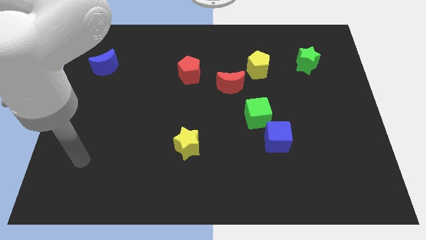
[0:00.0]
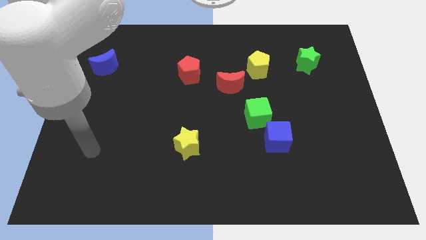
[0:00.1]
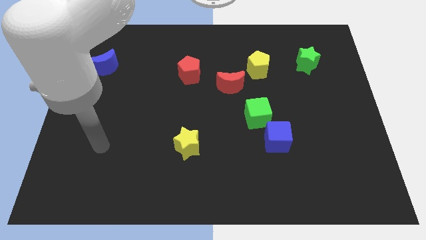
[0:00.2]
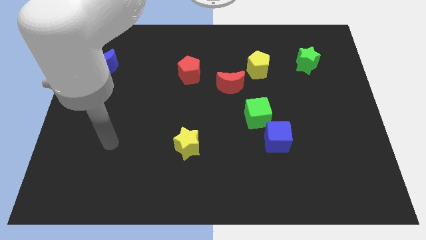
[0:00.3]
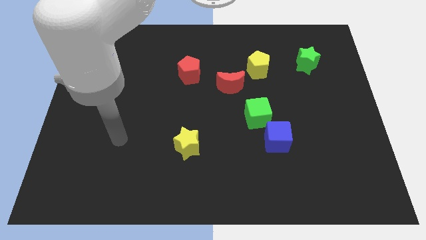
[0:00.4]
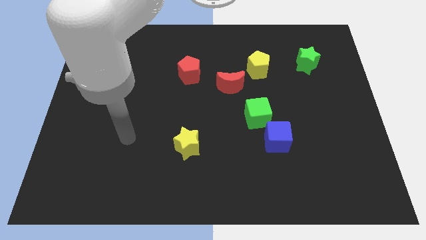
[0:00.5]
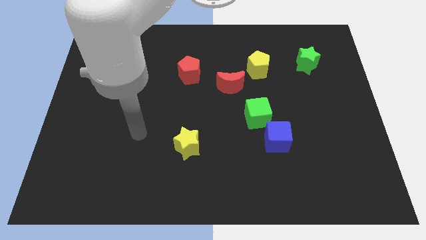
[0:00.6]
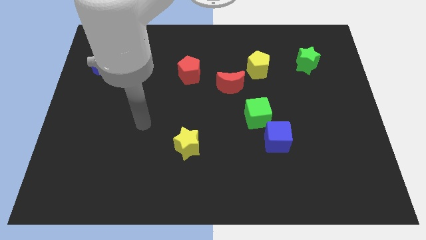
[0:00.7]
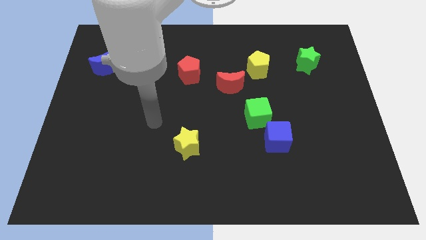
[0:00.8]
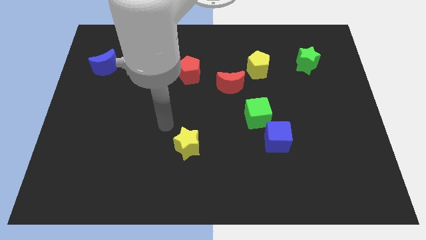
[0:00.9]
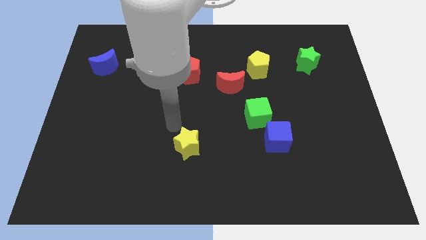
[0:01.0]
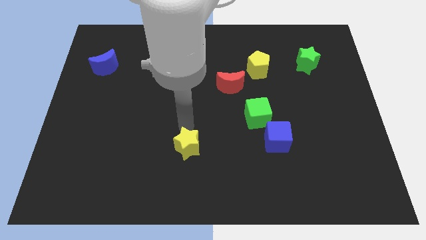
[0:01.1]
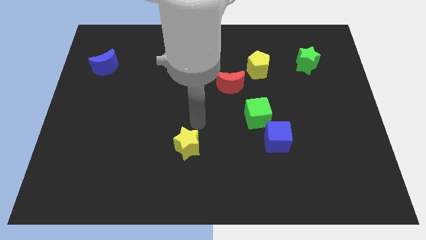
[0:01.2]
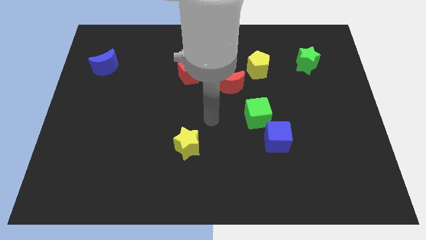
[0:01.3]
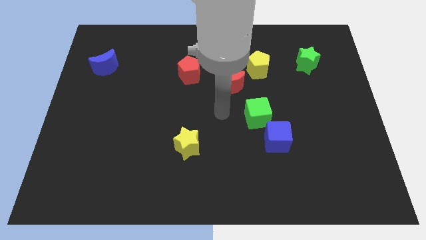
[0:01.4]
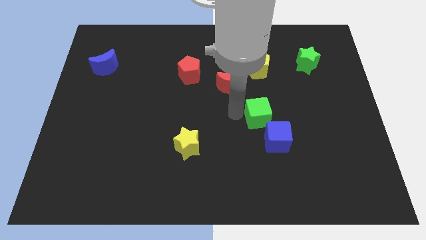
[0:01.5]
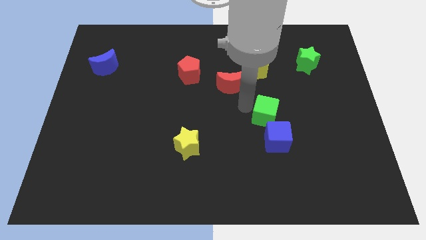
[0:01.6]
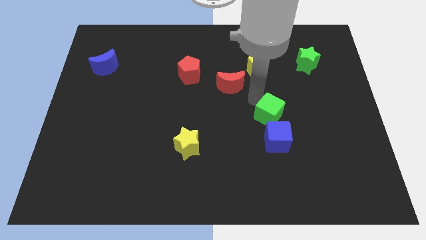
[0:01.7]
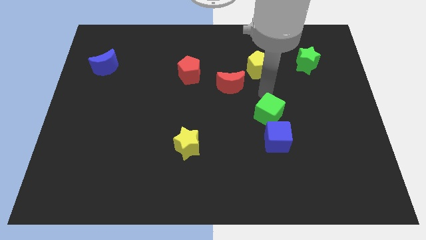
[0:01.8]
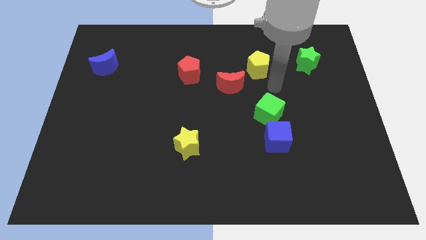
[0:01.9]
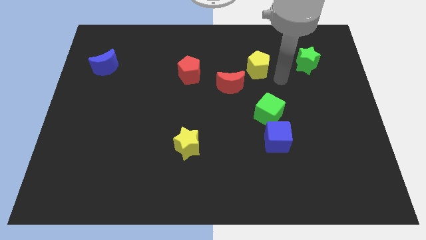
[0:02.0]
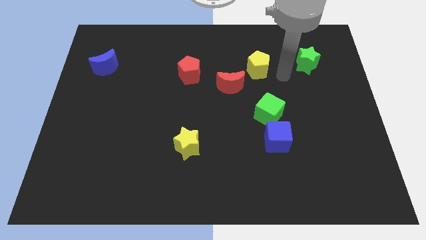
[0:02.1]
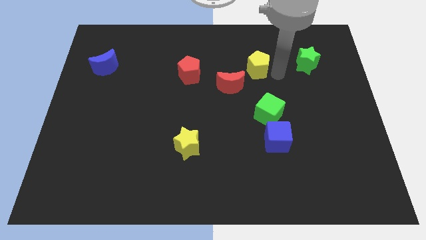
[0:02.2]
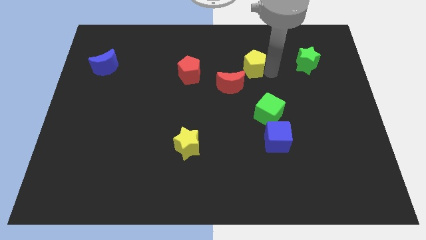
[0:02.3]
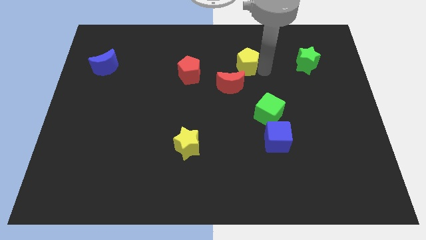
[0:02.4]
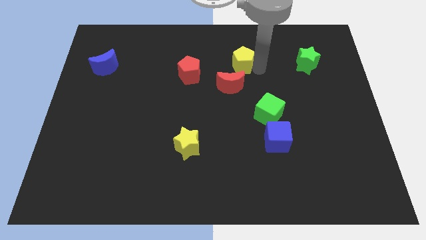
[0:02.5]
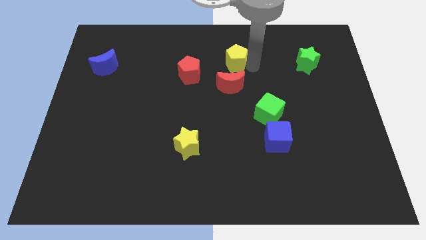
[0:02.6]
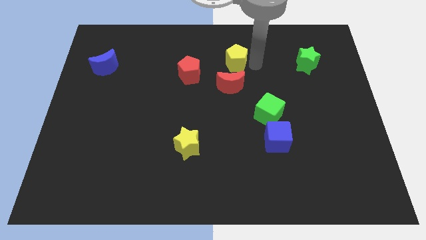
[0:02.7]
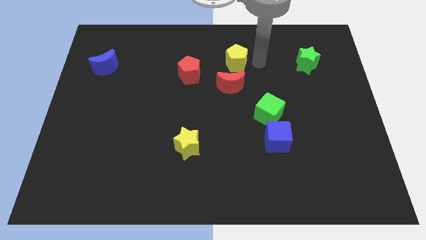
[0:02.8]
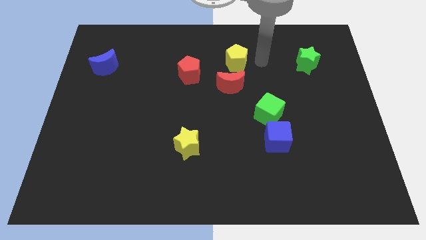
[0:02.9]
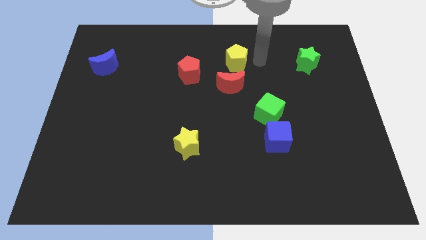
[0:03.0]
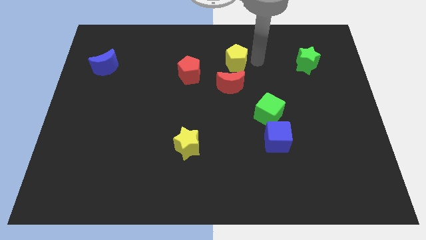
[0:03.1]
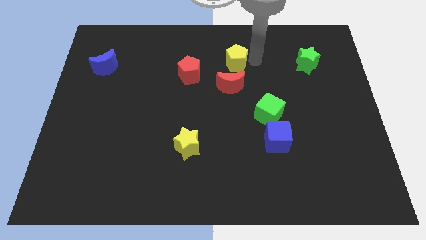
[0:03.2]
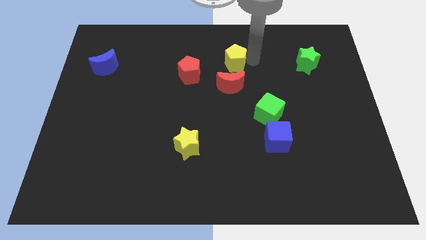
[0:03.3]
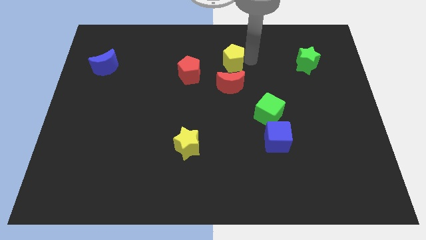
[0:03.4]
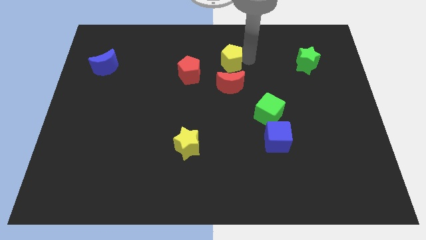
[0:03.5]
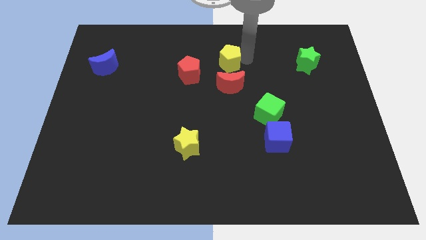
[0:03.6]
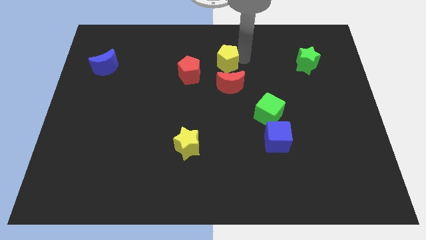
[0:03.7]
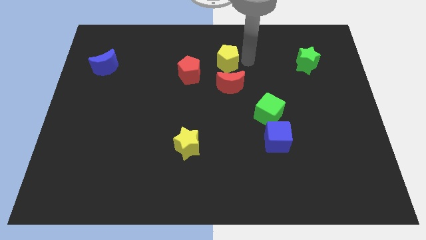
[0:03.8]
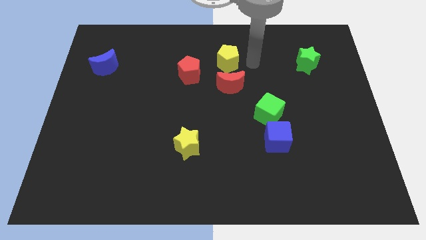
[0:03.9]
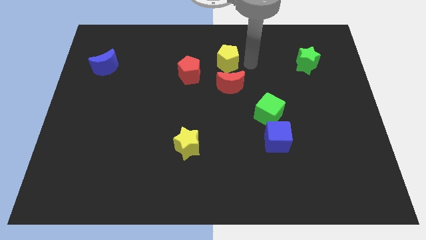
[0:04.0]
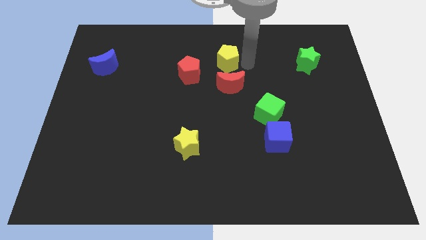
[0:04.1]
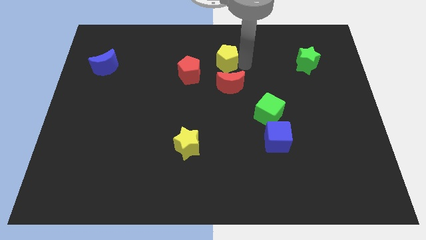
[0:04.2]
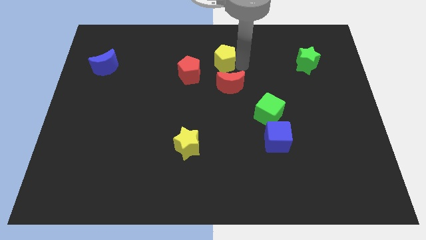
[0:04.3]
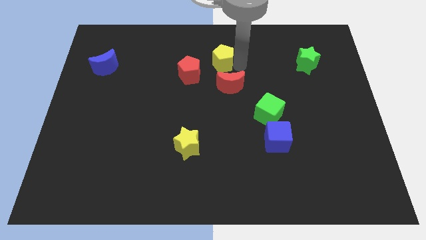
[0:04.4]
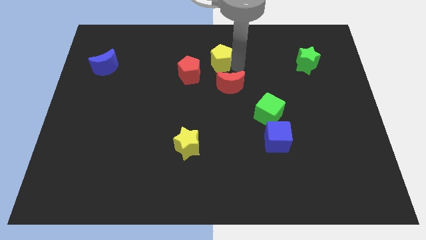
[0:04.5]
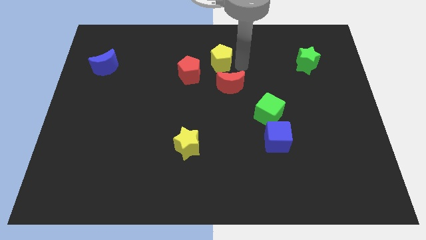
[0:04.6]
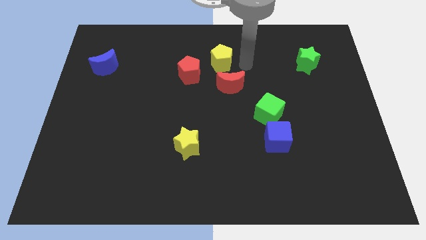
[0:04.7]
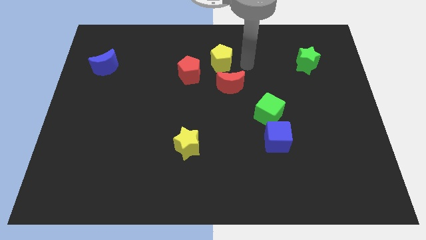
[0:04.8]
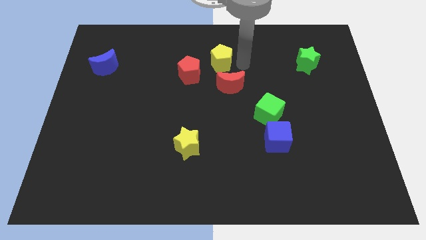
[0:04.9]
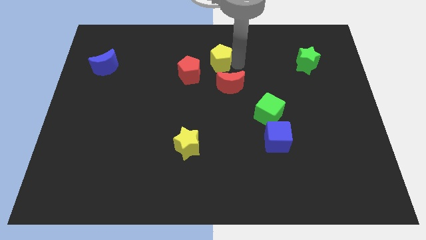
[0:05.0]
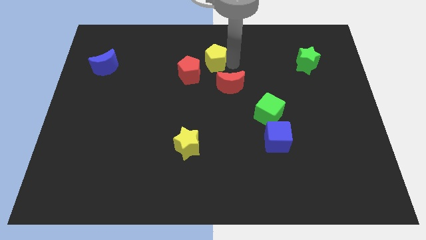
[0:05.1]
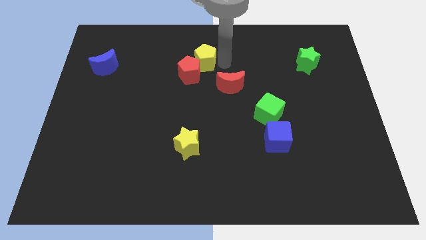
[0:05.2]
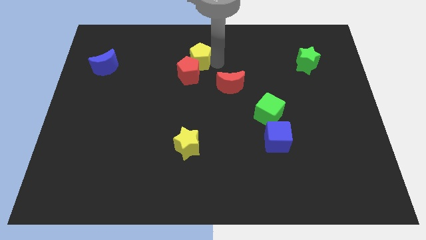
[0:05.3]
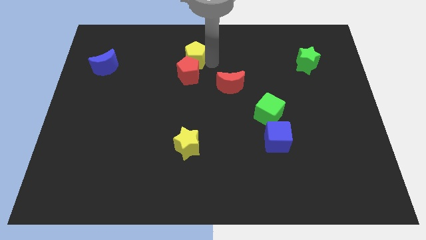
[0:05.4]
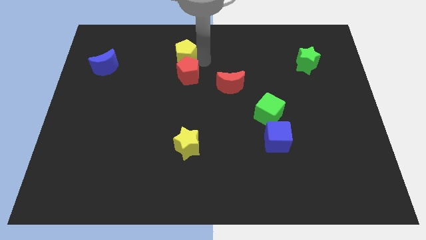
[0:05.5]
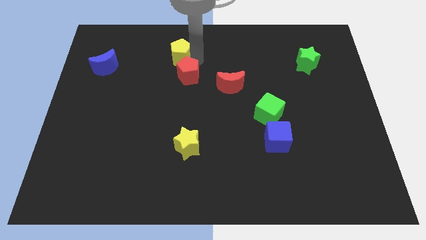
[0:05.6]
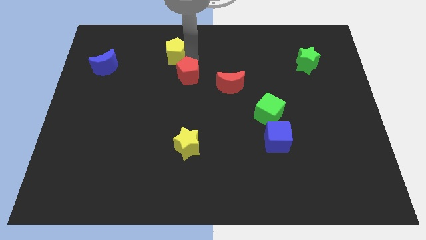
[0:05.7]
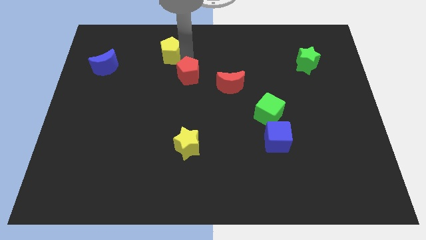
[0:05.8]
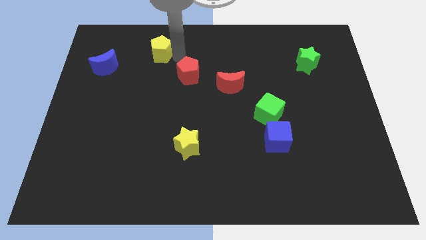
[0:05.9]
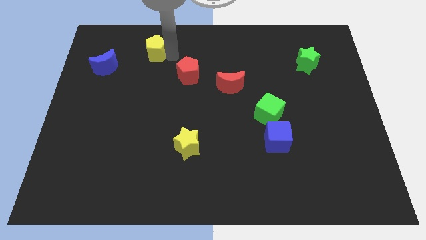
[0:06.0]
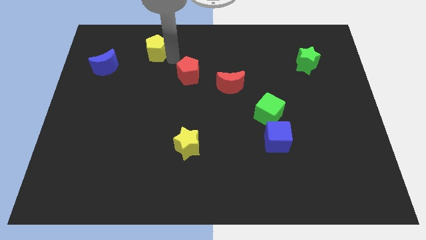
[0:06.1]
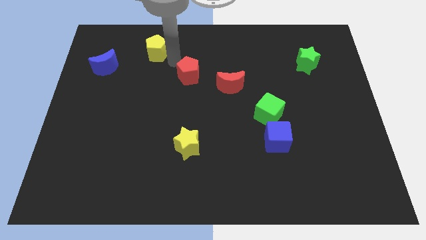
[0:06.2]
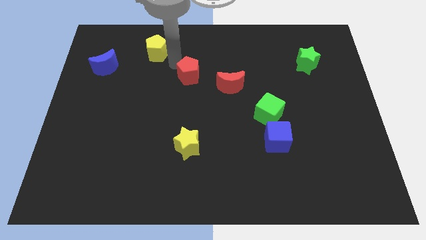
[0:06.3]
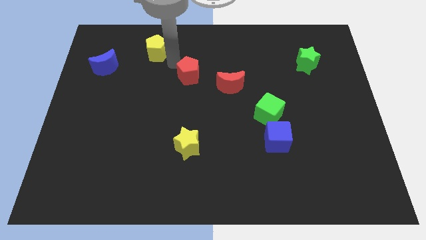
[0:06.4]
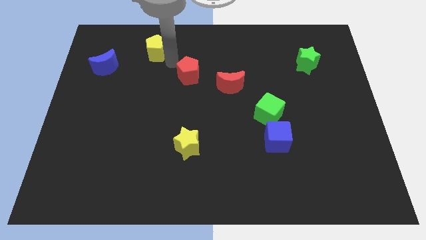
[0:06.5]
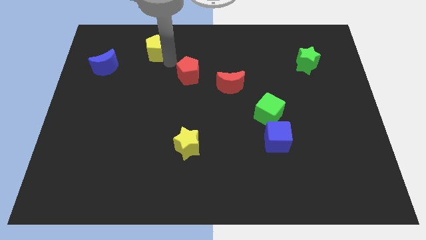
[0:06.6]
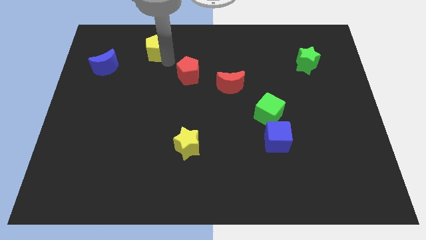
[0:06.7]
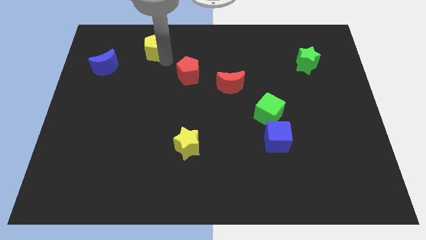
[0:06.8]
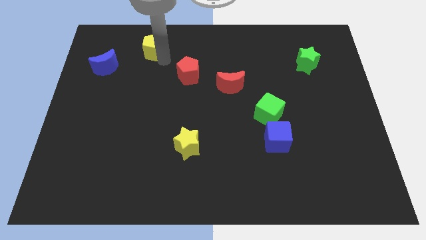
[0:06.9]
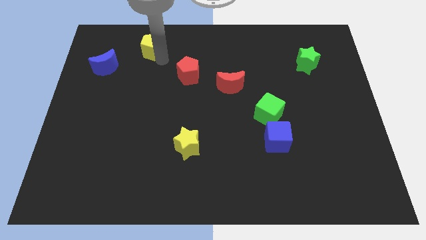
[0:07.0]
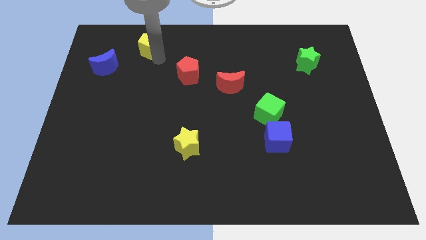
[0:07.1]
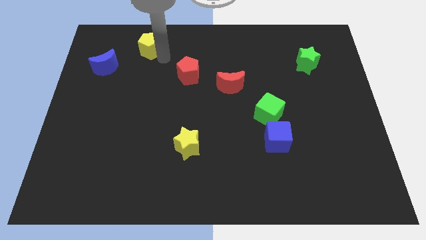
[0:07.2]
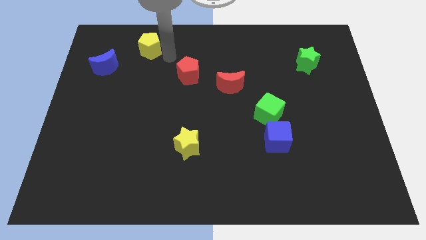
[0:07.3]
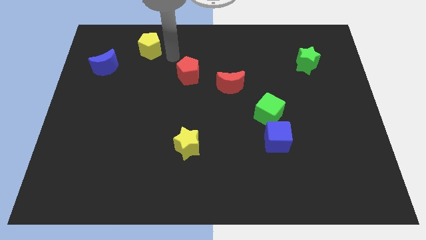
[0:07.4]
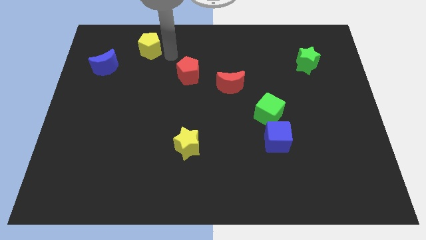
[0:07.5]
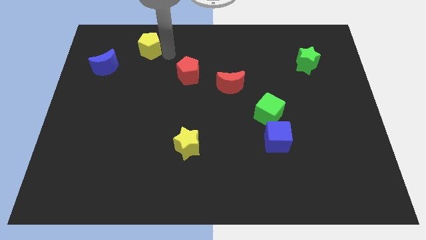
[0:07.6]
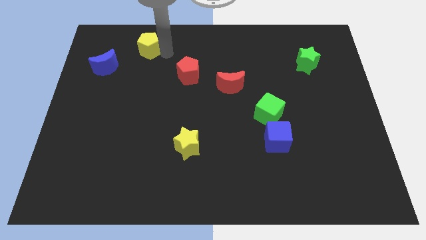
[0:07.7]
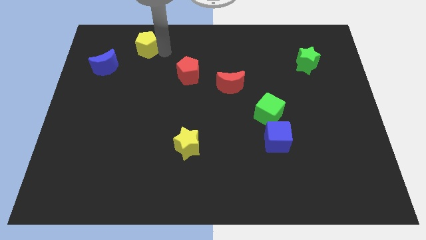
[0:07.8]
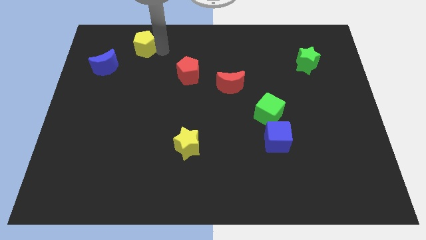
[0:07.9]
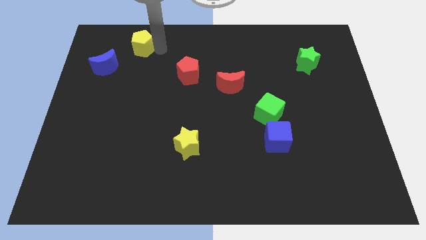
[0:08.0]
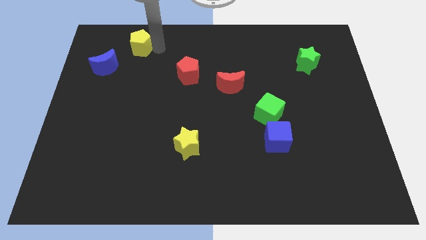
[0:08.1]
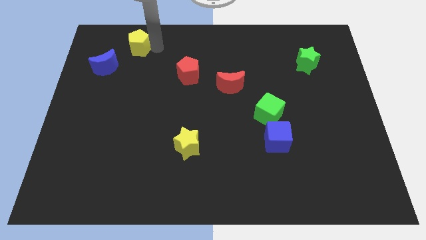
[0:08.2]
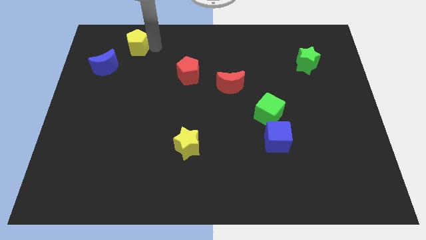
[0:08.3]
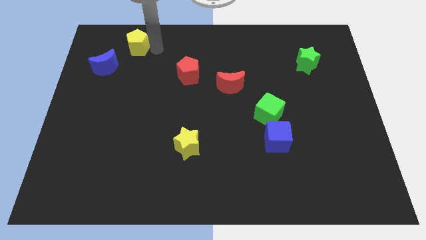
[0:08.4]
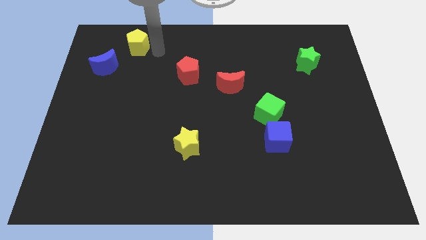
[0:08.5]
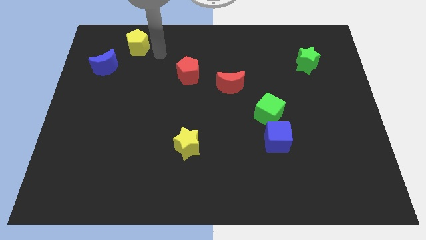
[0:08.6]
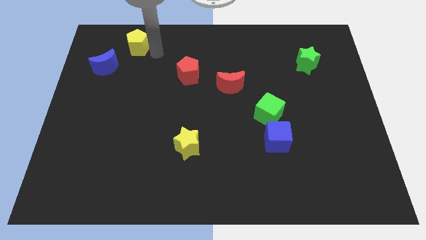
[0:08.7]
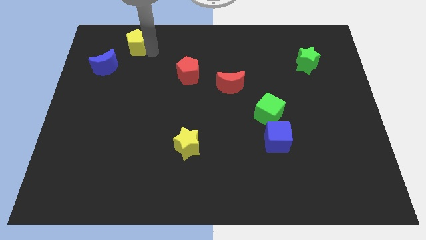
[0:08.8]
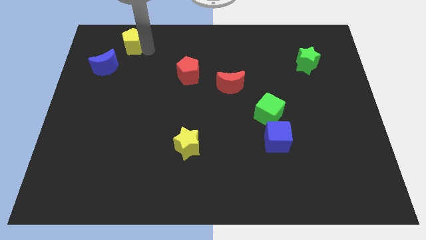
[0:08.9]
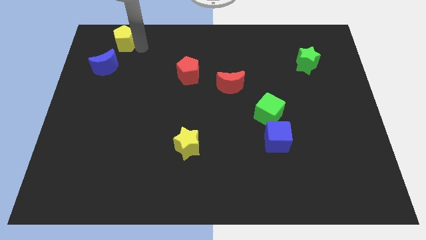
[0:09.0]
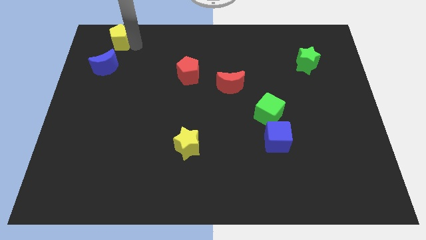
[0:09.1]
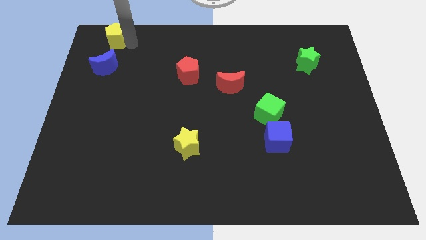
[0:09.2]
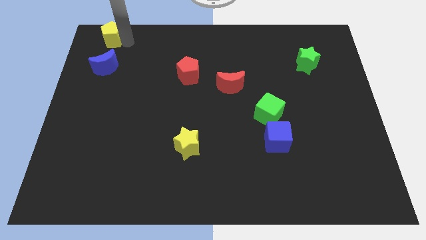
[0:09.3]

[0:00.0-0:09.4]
move the yellow pentagon to the top left corner
